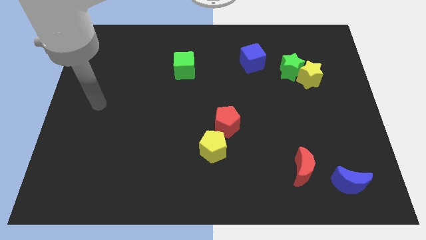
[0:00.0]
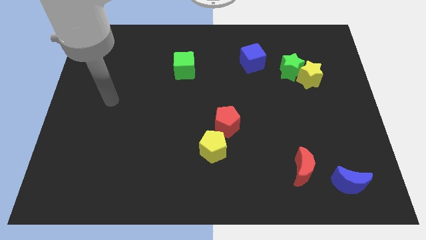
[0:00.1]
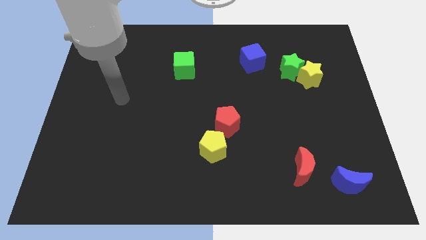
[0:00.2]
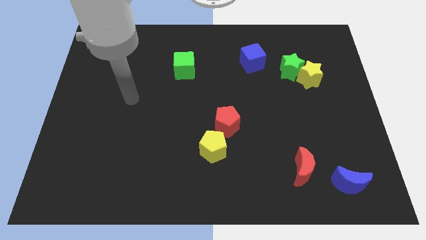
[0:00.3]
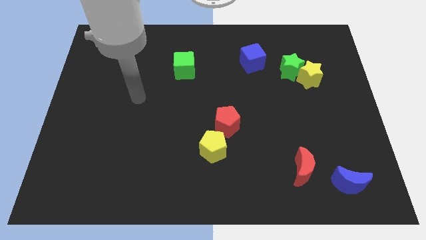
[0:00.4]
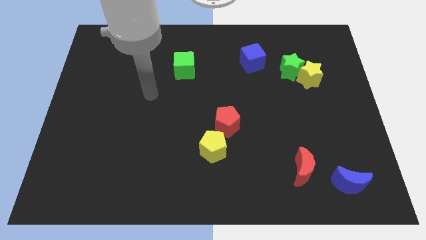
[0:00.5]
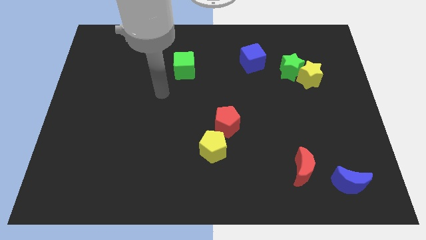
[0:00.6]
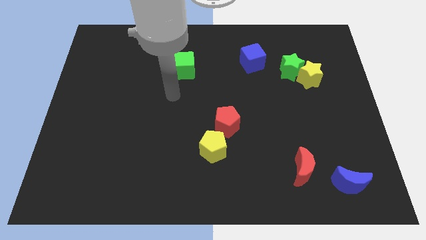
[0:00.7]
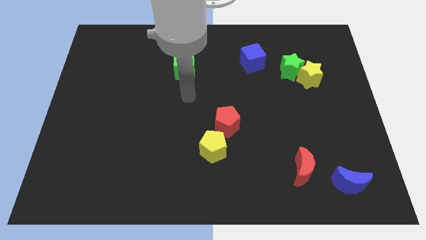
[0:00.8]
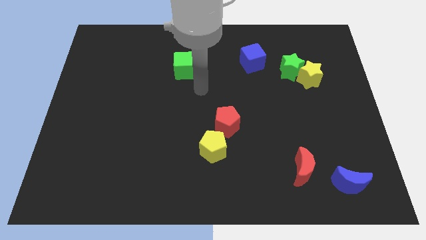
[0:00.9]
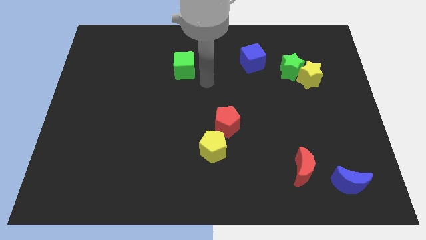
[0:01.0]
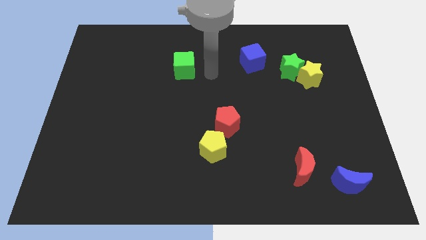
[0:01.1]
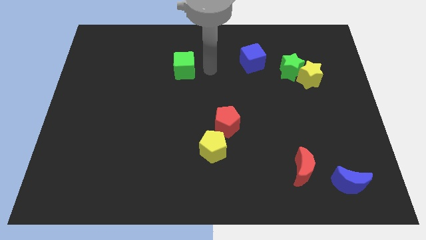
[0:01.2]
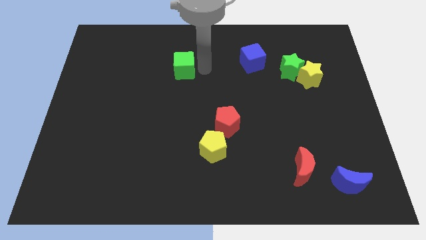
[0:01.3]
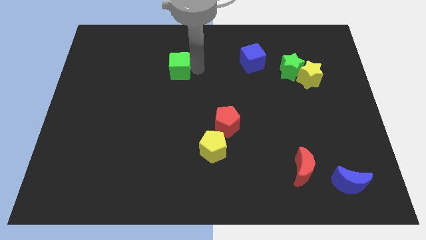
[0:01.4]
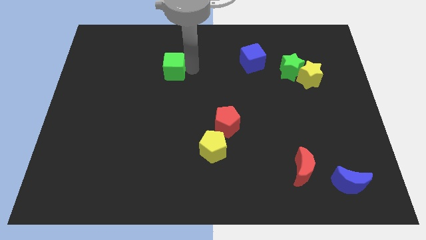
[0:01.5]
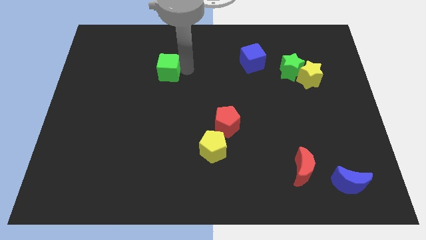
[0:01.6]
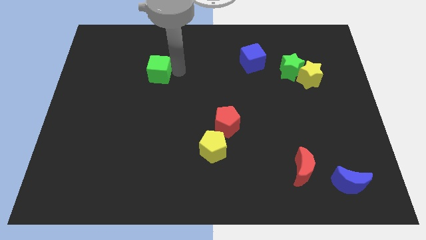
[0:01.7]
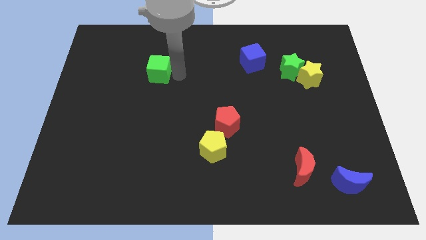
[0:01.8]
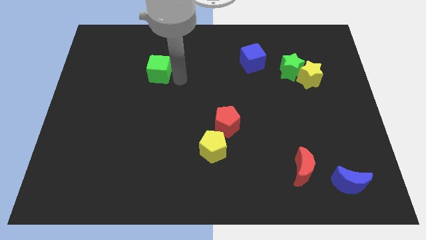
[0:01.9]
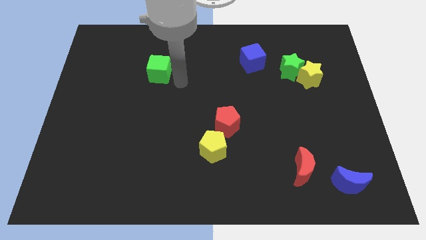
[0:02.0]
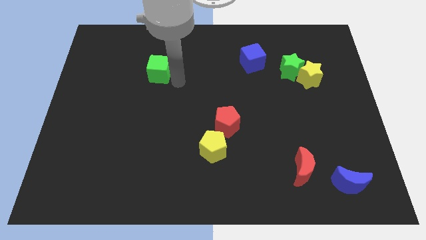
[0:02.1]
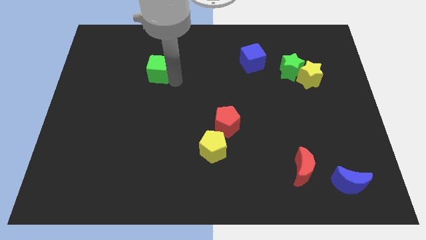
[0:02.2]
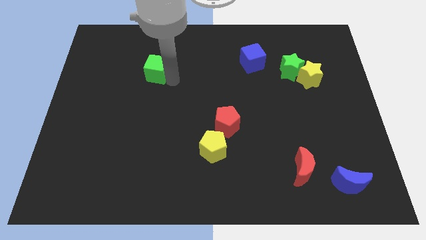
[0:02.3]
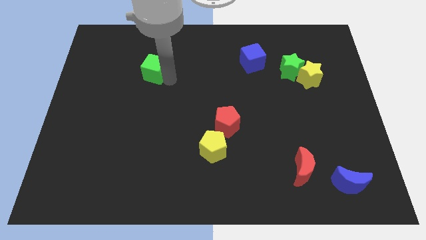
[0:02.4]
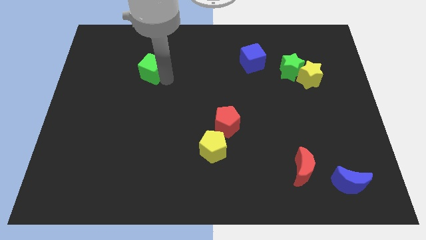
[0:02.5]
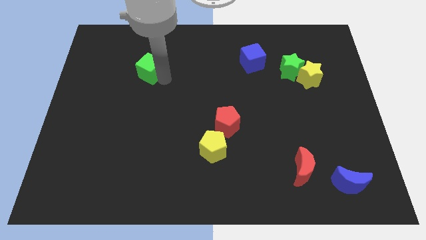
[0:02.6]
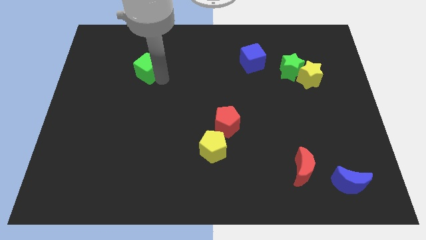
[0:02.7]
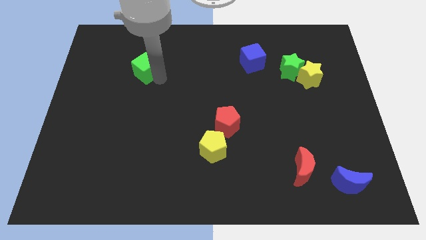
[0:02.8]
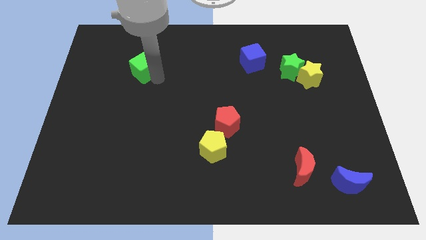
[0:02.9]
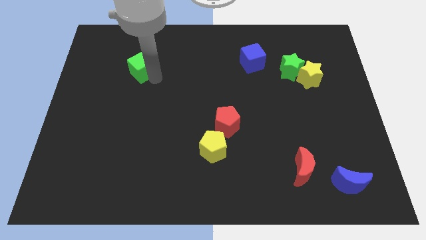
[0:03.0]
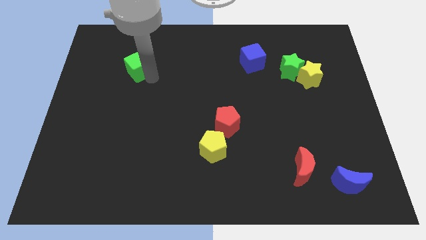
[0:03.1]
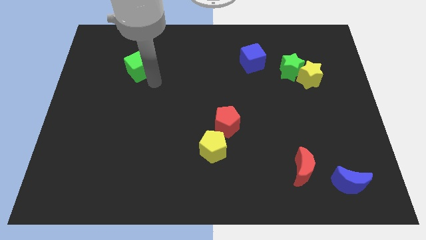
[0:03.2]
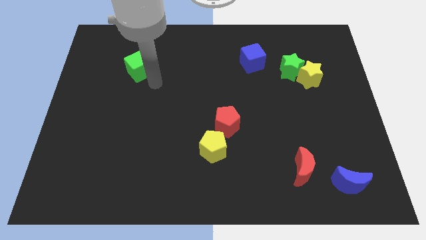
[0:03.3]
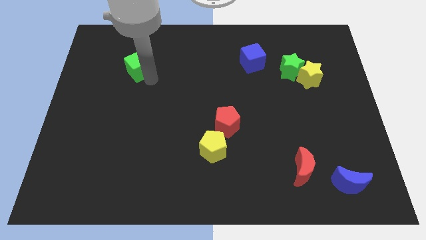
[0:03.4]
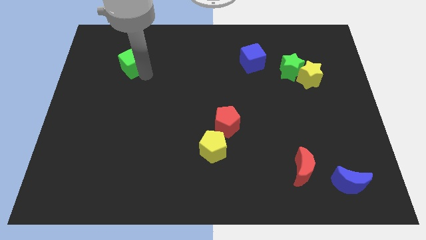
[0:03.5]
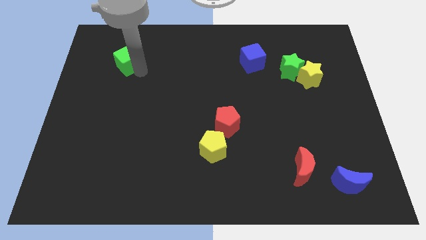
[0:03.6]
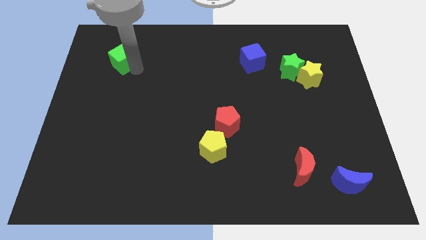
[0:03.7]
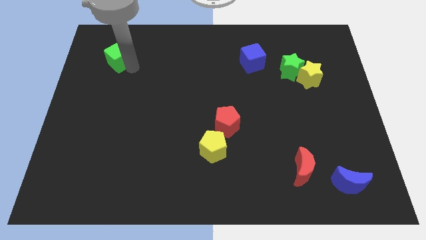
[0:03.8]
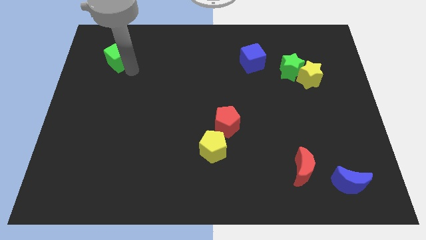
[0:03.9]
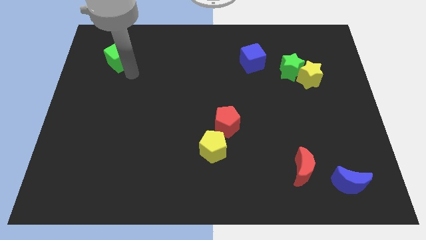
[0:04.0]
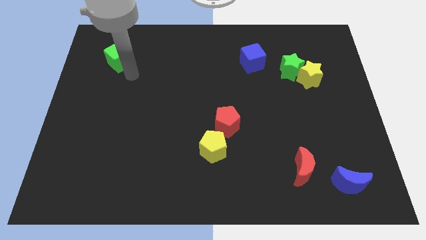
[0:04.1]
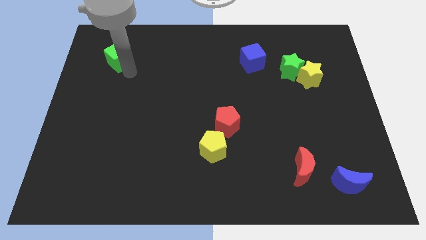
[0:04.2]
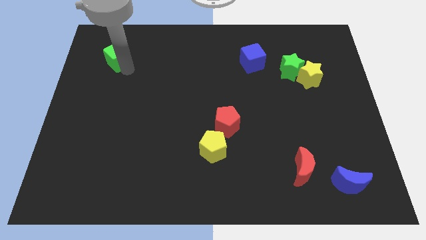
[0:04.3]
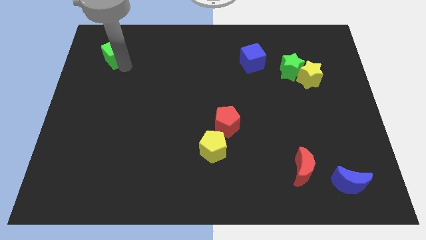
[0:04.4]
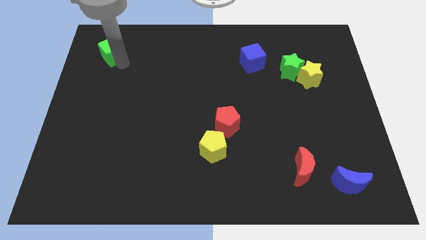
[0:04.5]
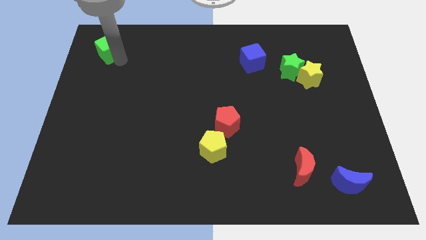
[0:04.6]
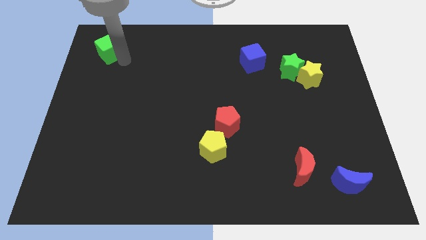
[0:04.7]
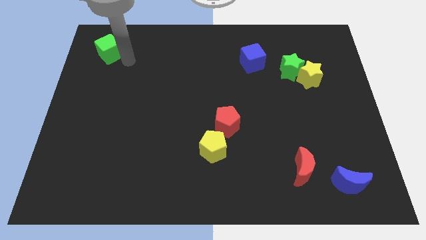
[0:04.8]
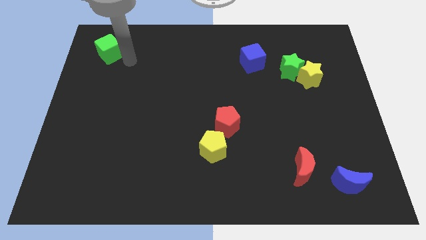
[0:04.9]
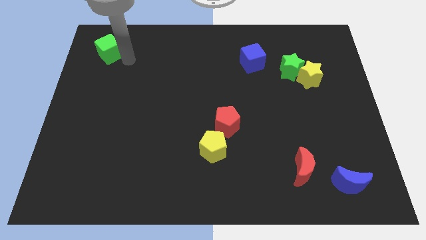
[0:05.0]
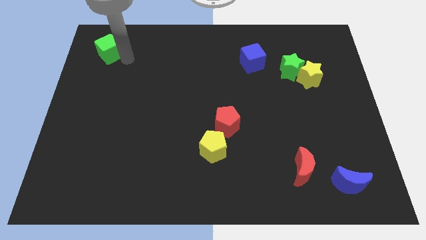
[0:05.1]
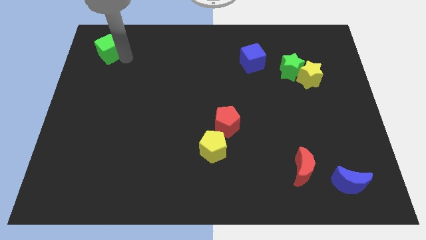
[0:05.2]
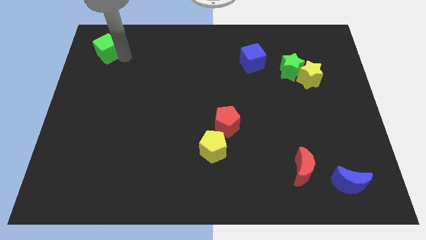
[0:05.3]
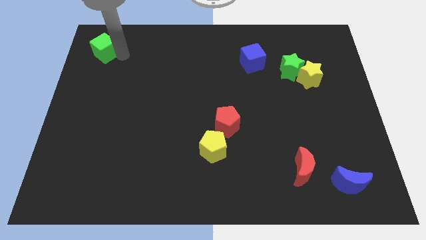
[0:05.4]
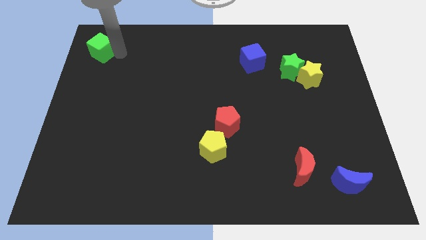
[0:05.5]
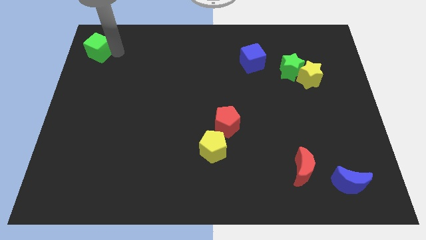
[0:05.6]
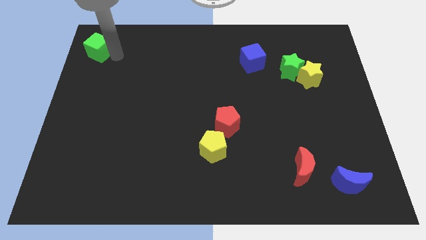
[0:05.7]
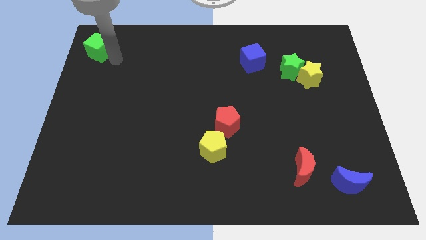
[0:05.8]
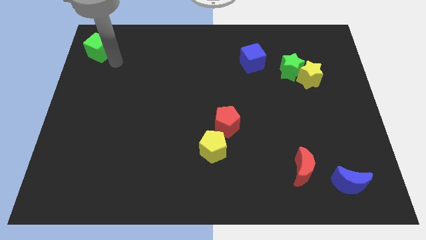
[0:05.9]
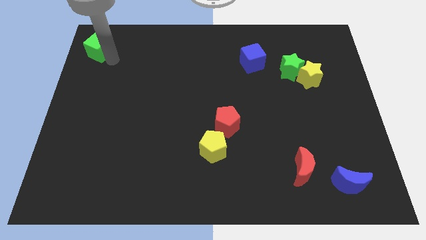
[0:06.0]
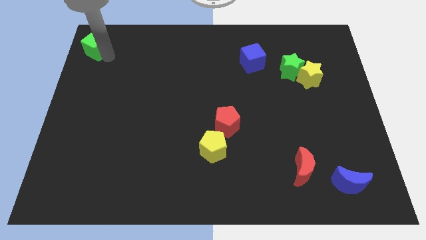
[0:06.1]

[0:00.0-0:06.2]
slide the green cube to the top left corner

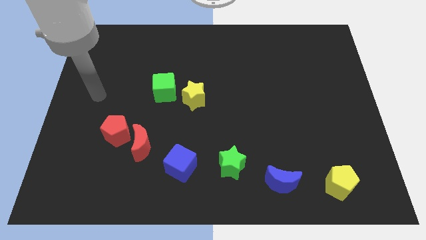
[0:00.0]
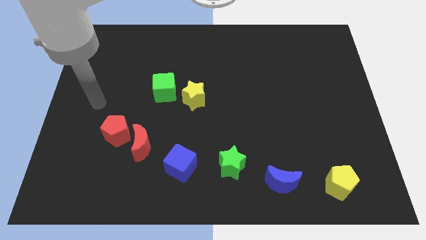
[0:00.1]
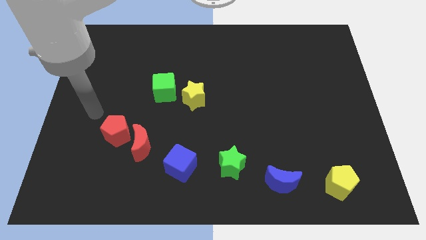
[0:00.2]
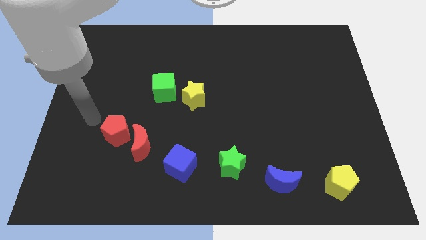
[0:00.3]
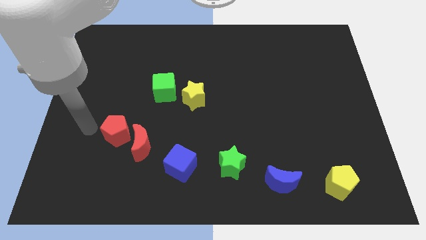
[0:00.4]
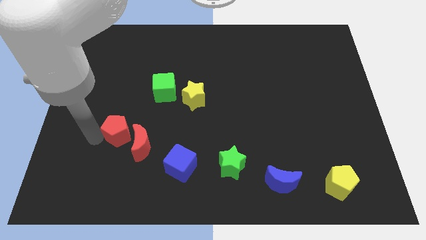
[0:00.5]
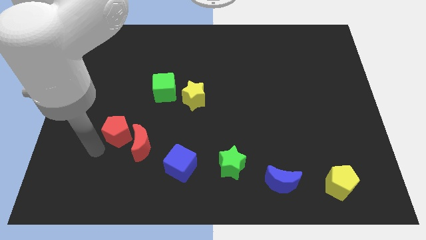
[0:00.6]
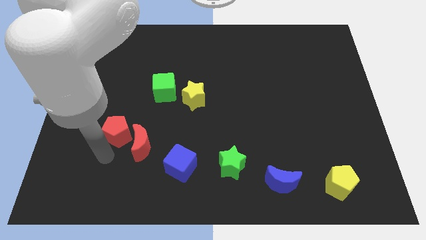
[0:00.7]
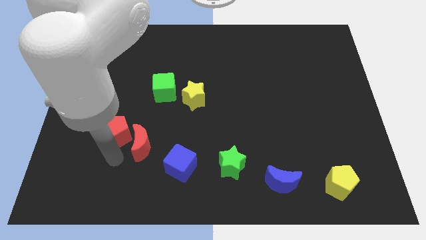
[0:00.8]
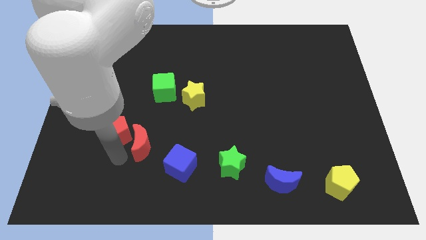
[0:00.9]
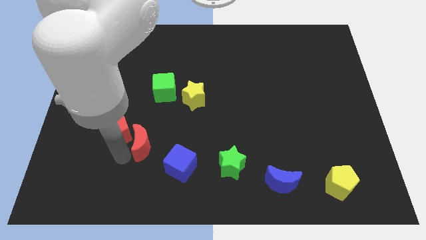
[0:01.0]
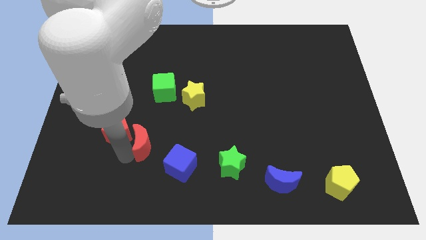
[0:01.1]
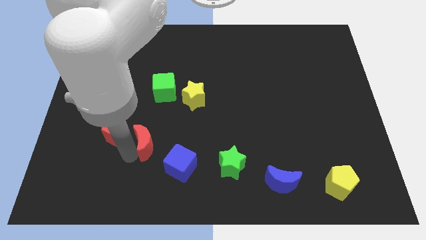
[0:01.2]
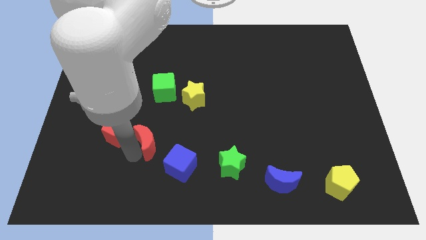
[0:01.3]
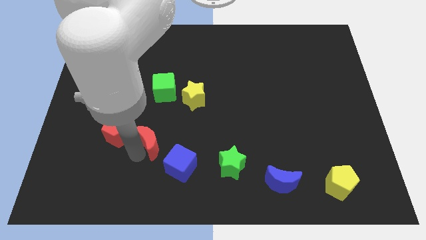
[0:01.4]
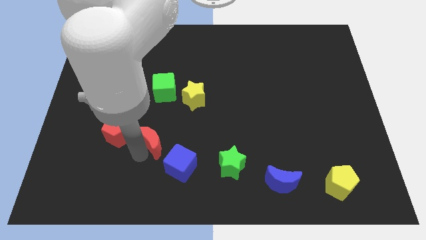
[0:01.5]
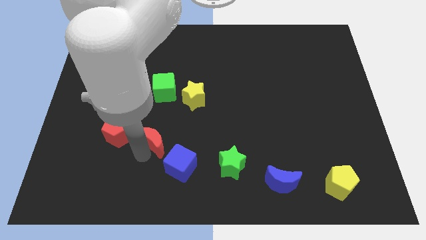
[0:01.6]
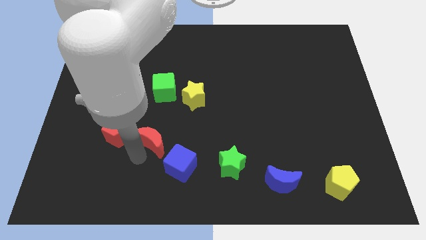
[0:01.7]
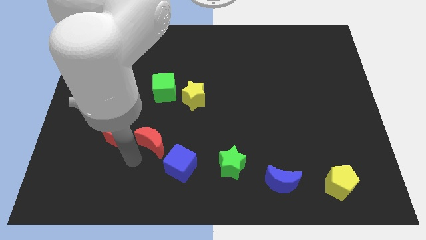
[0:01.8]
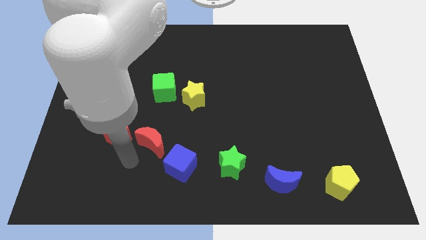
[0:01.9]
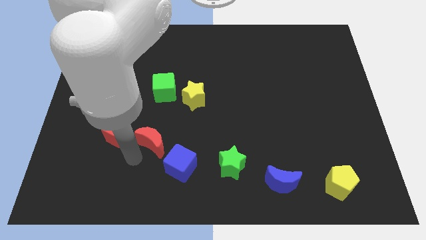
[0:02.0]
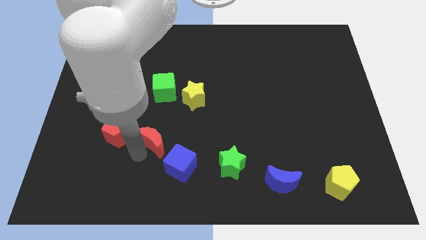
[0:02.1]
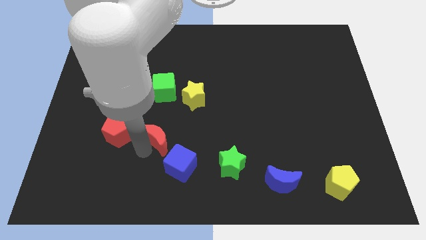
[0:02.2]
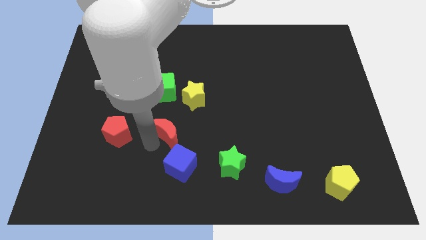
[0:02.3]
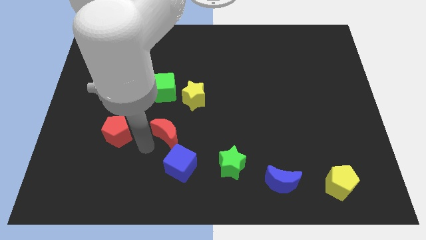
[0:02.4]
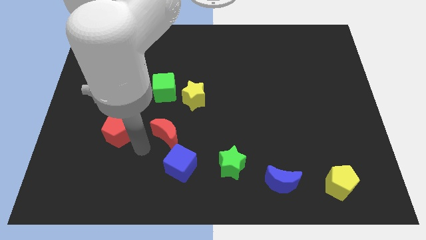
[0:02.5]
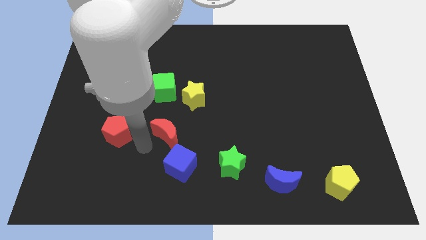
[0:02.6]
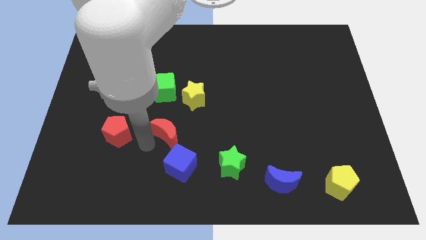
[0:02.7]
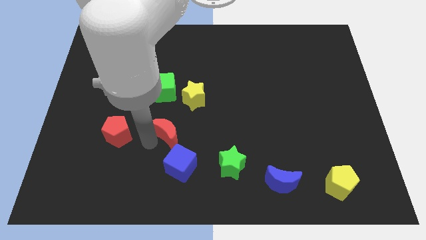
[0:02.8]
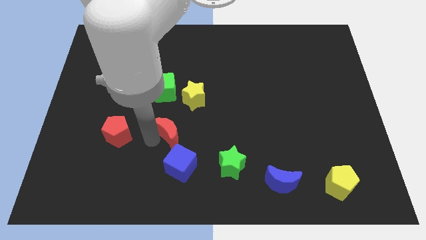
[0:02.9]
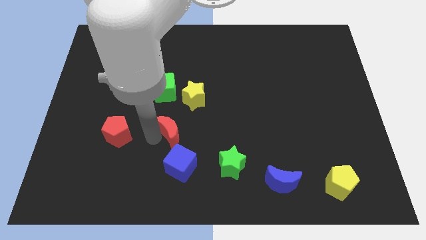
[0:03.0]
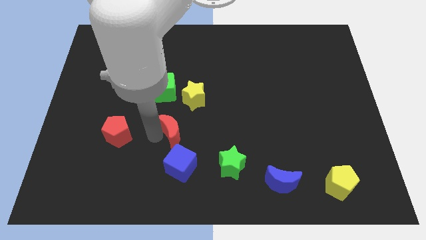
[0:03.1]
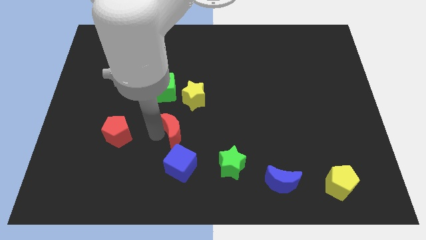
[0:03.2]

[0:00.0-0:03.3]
push the red moon to the middle of the board
